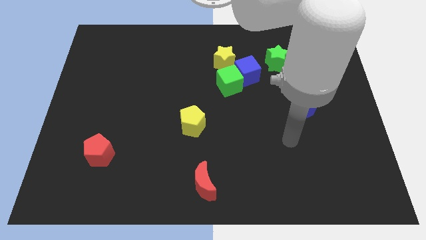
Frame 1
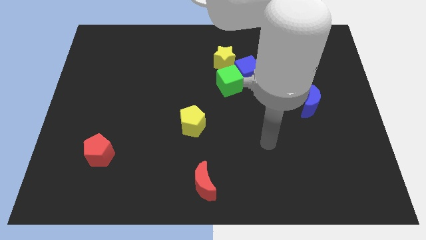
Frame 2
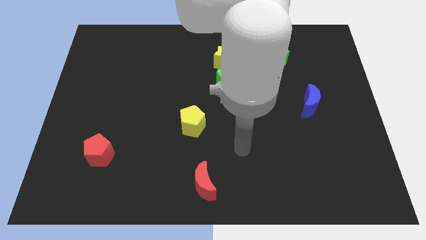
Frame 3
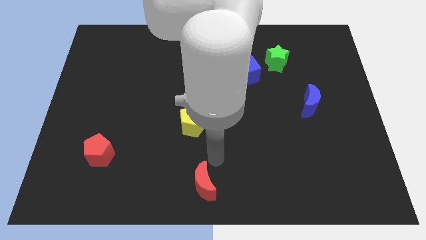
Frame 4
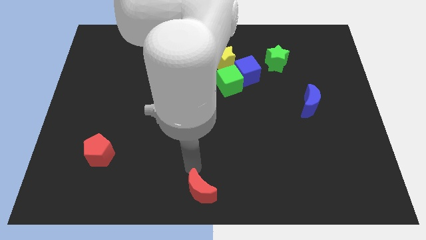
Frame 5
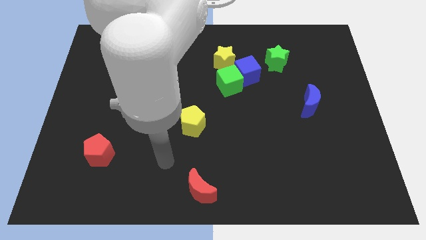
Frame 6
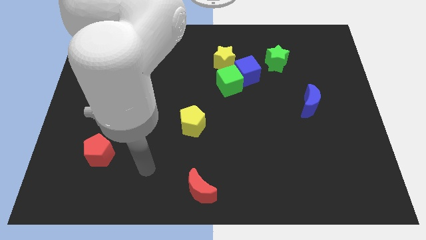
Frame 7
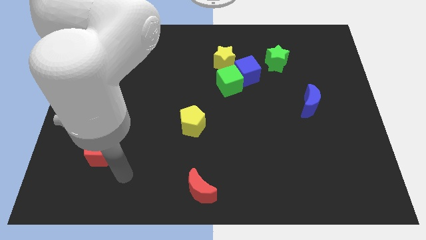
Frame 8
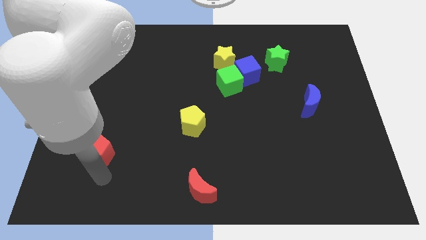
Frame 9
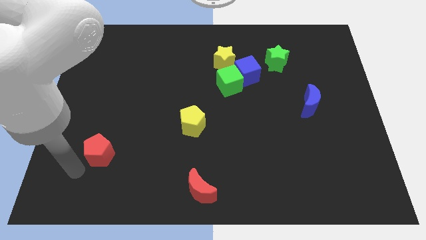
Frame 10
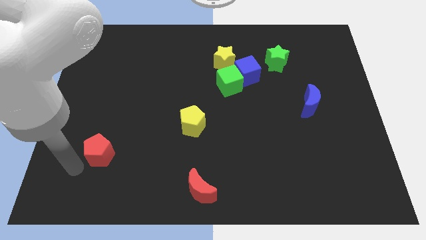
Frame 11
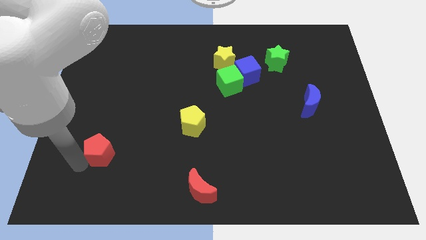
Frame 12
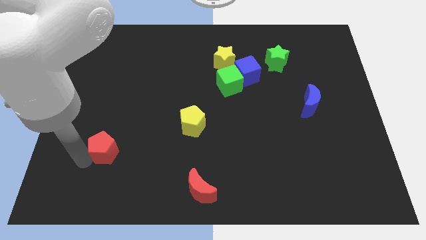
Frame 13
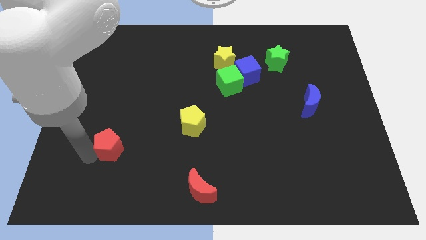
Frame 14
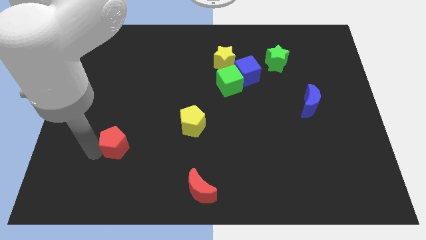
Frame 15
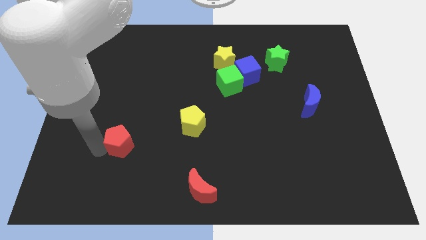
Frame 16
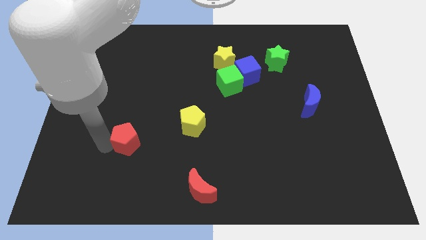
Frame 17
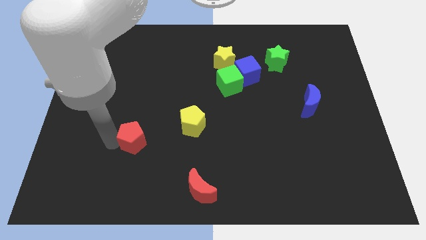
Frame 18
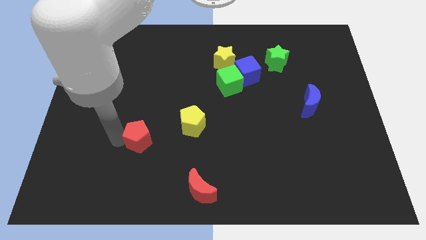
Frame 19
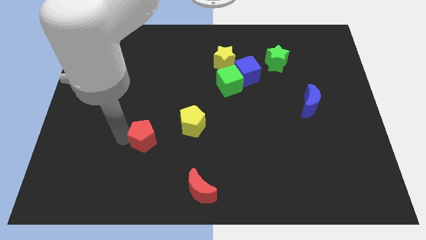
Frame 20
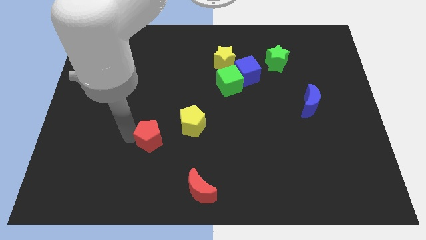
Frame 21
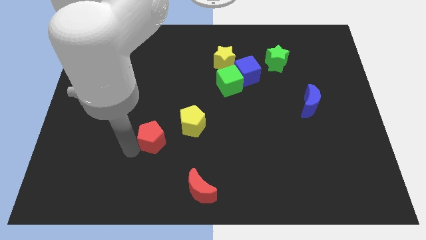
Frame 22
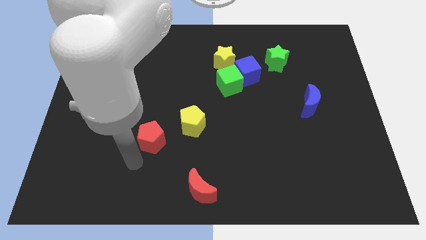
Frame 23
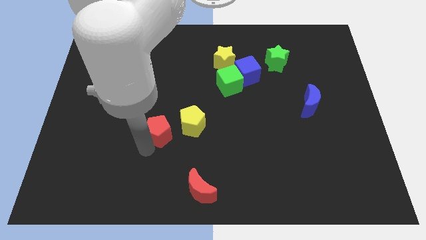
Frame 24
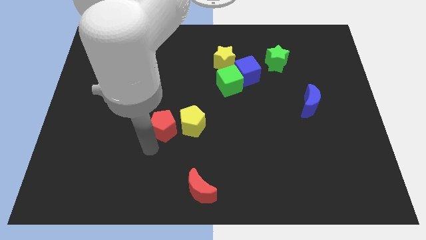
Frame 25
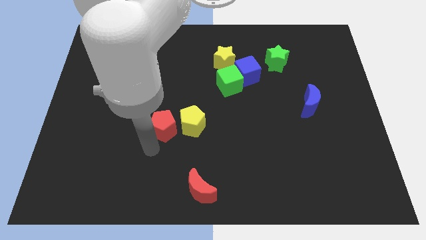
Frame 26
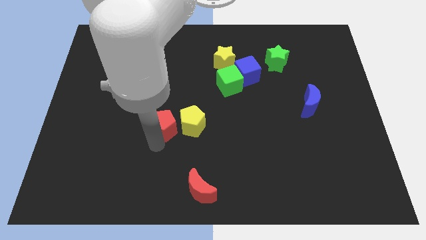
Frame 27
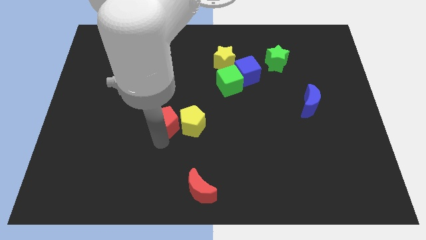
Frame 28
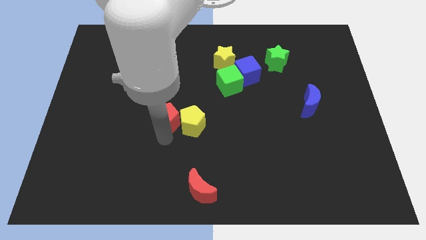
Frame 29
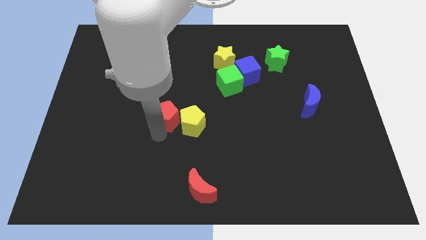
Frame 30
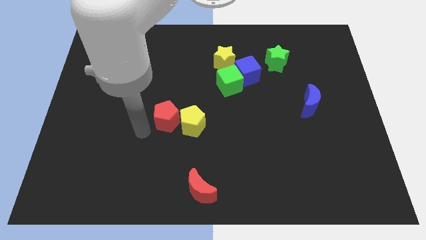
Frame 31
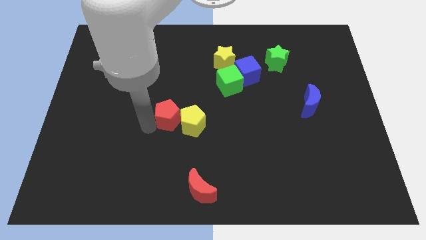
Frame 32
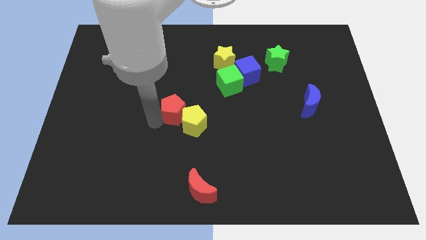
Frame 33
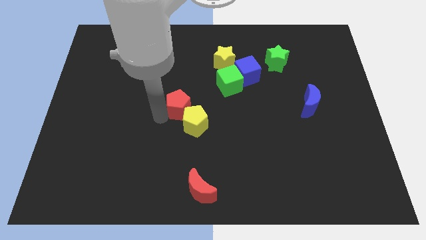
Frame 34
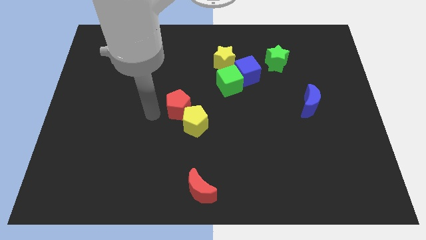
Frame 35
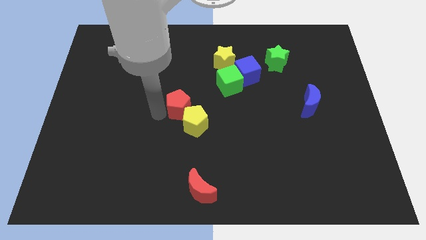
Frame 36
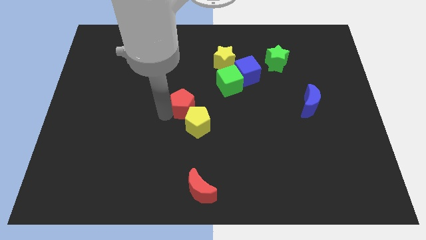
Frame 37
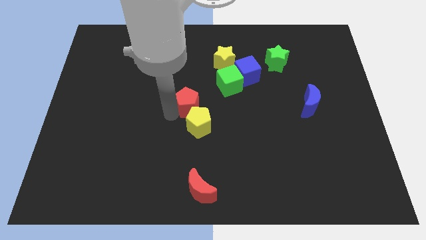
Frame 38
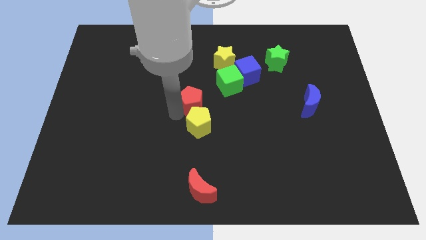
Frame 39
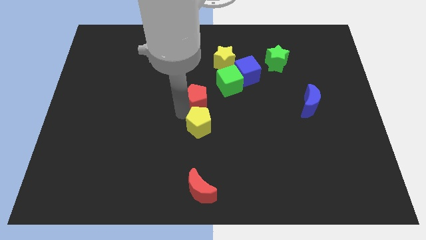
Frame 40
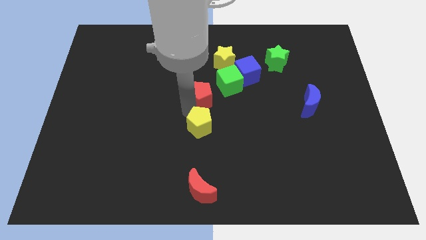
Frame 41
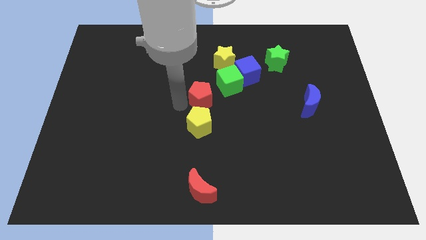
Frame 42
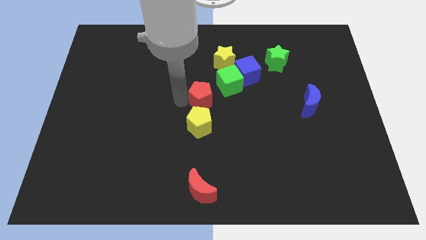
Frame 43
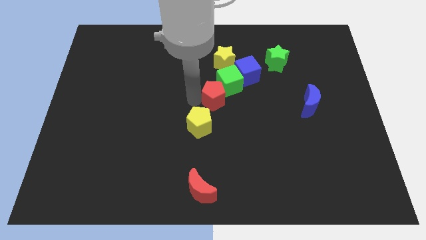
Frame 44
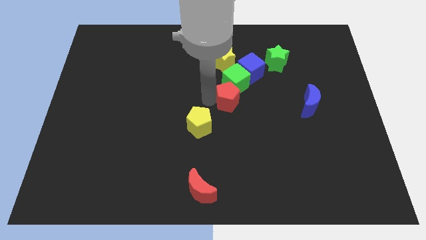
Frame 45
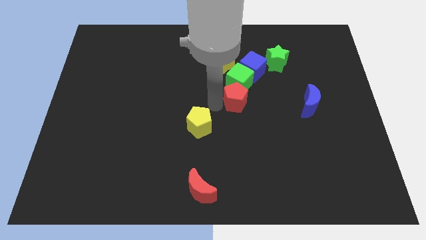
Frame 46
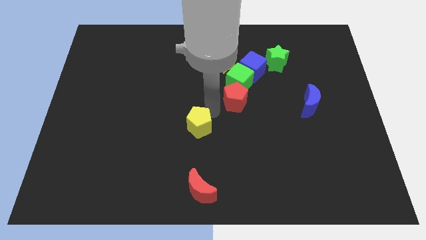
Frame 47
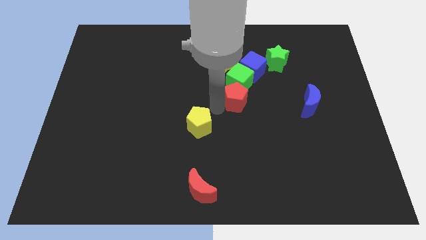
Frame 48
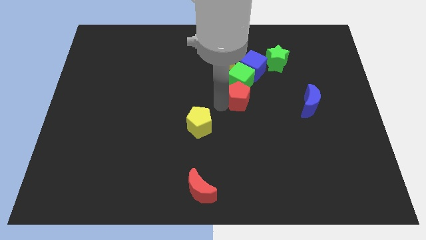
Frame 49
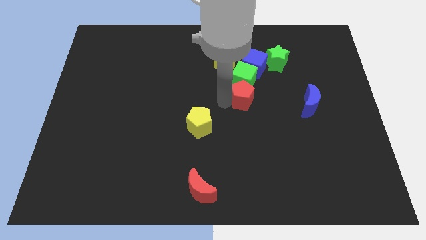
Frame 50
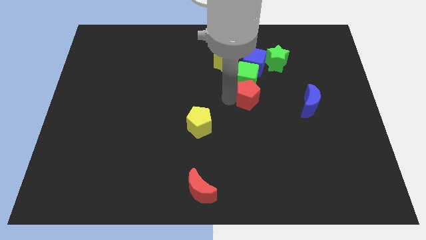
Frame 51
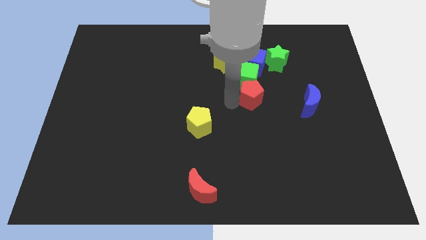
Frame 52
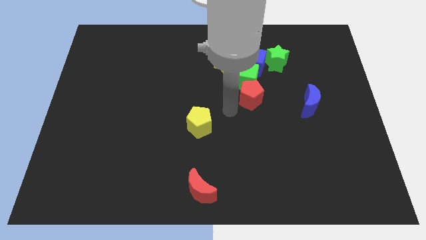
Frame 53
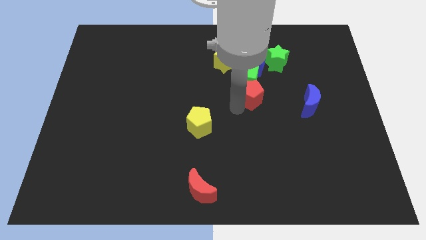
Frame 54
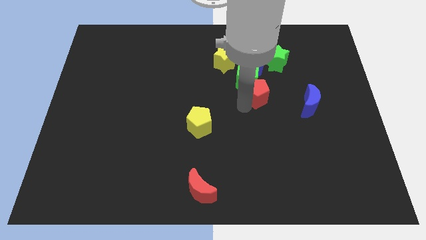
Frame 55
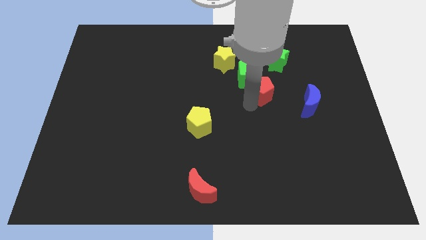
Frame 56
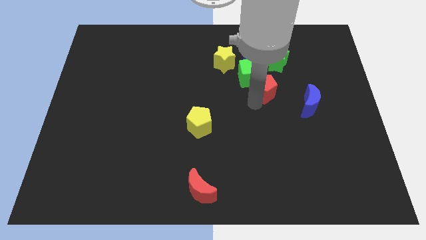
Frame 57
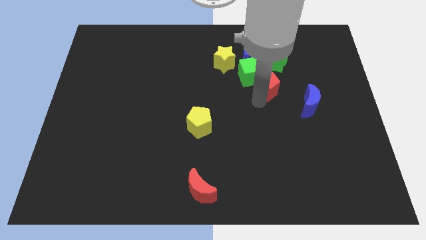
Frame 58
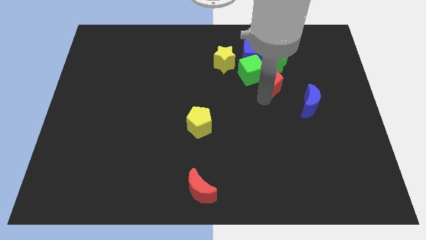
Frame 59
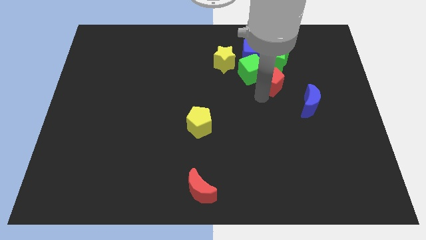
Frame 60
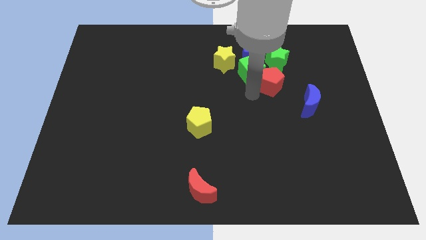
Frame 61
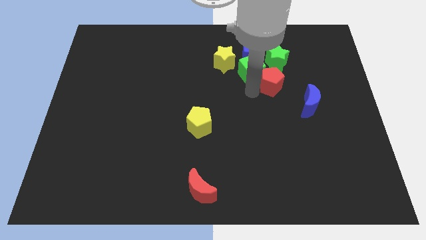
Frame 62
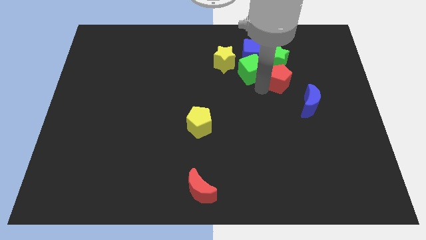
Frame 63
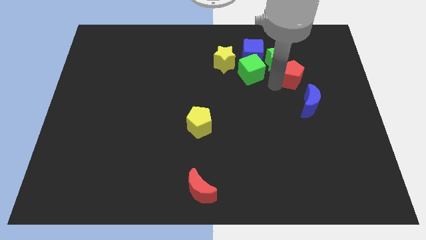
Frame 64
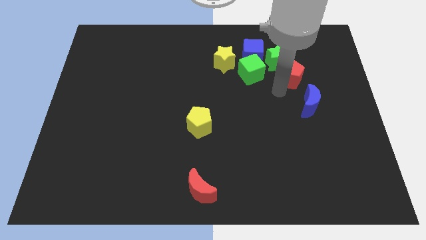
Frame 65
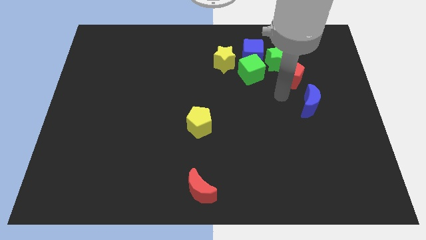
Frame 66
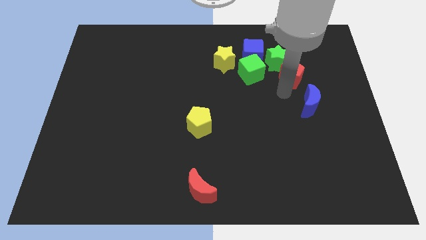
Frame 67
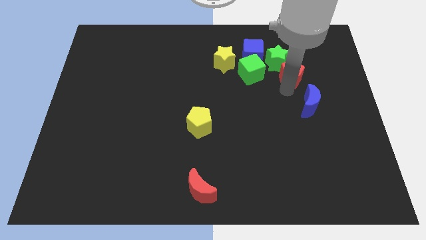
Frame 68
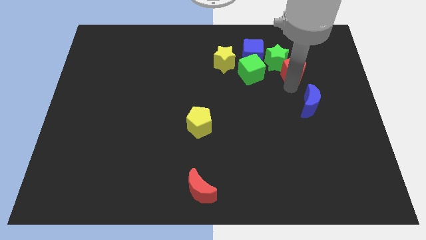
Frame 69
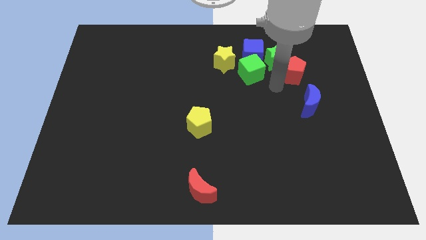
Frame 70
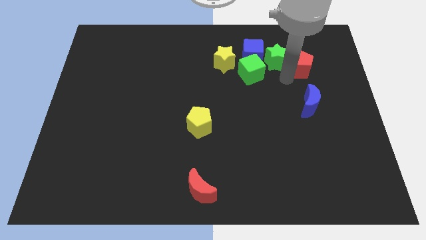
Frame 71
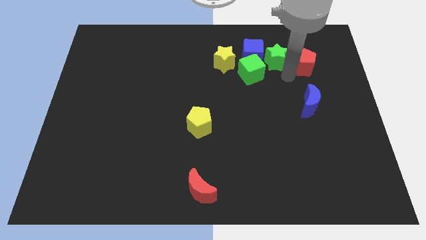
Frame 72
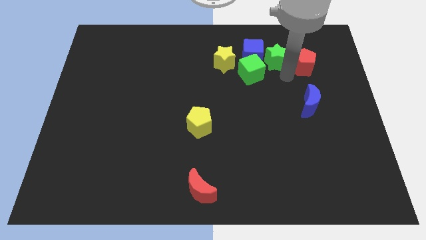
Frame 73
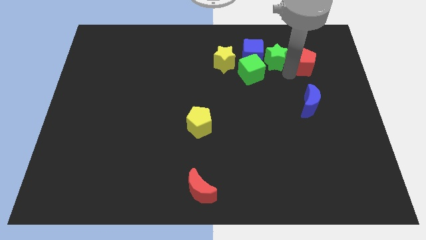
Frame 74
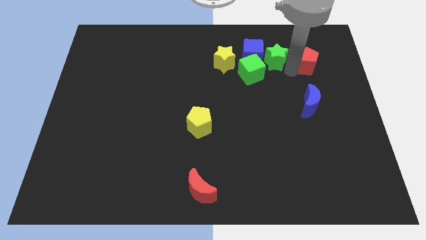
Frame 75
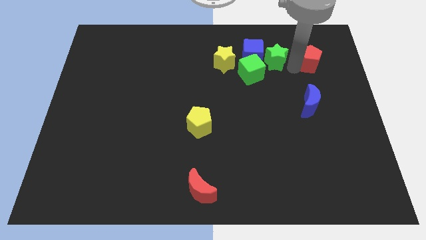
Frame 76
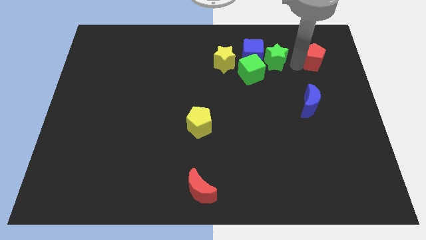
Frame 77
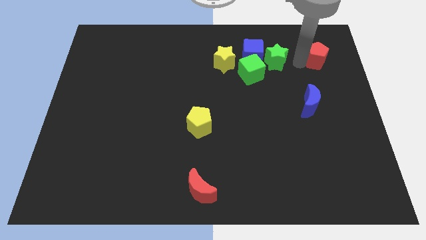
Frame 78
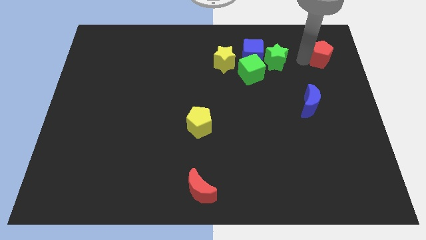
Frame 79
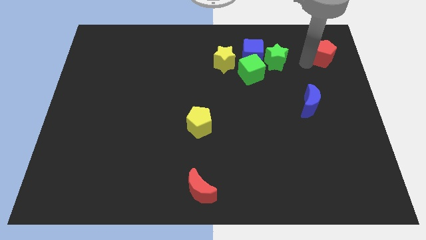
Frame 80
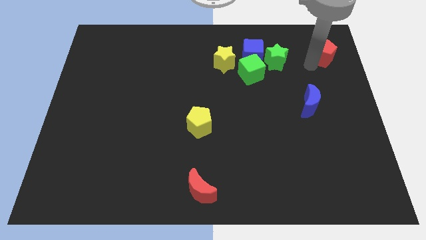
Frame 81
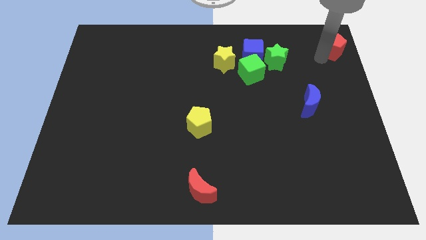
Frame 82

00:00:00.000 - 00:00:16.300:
slide the red pentagon to the top right
